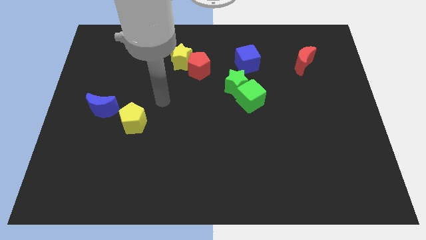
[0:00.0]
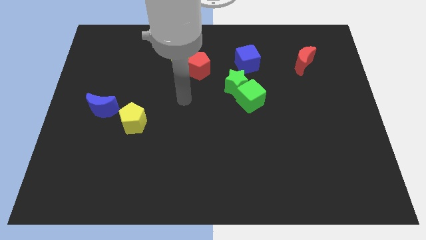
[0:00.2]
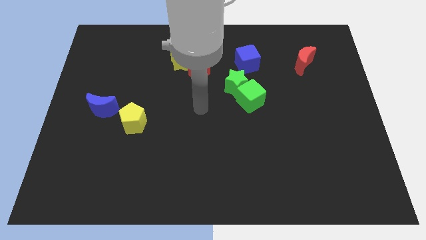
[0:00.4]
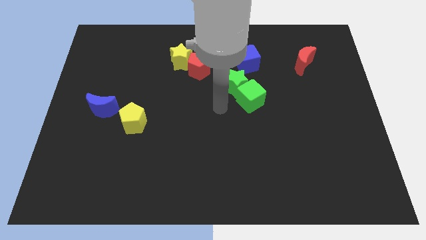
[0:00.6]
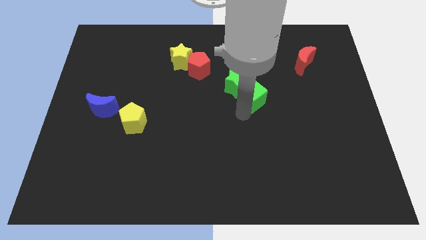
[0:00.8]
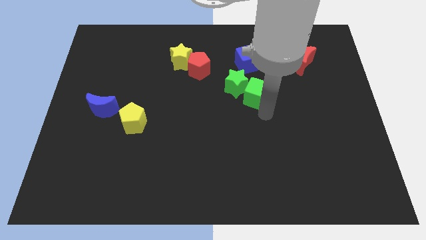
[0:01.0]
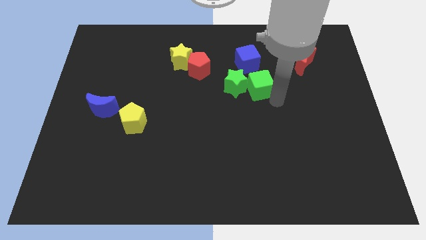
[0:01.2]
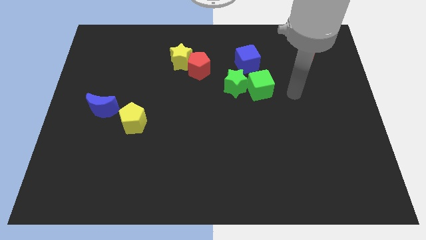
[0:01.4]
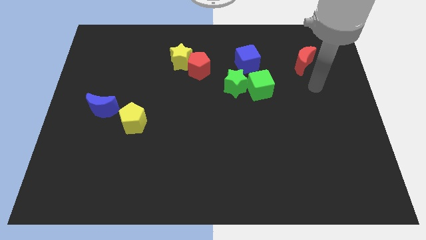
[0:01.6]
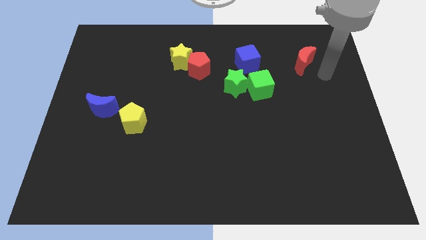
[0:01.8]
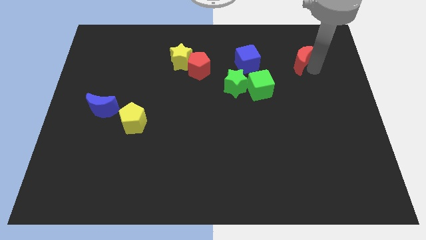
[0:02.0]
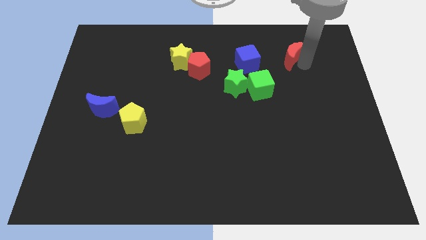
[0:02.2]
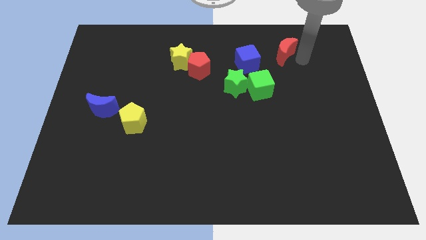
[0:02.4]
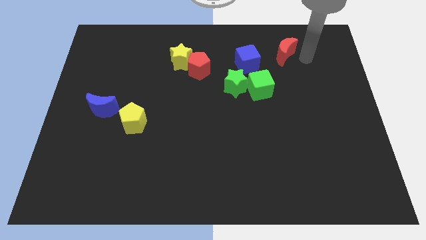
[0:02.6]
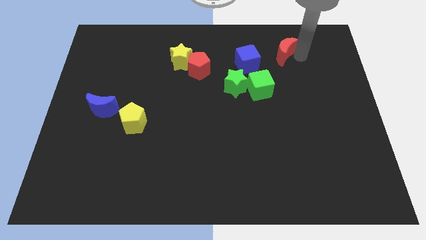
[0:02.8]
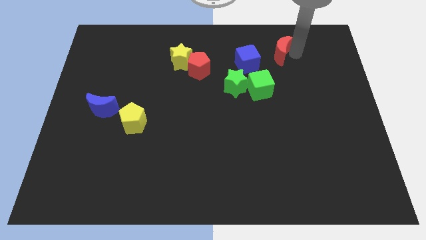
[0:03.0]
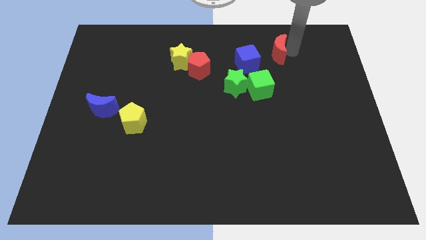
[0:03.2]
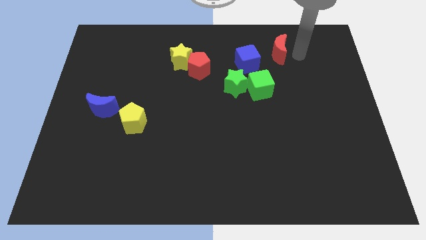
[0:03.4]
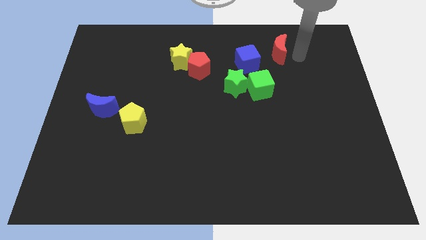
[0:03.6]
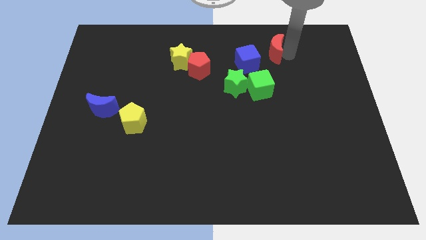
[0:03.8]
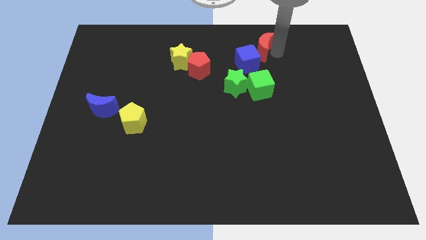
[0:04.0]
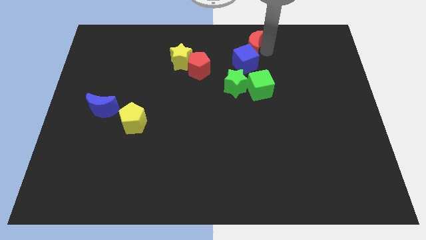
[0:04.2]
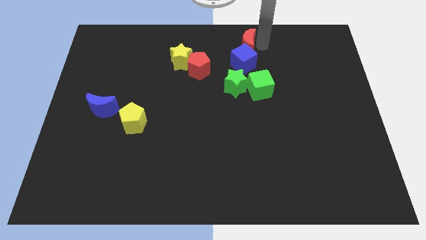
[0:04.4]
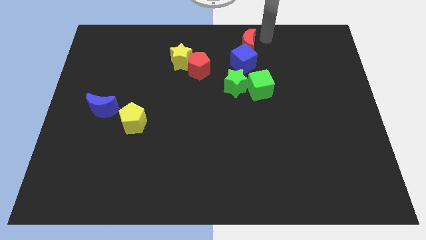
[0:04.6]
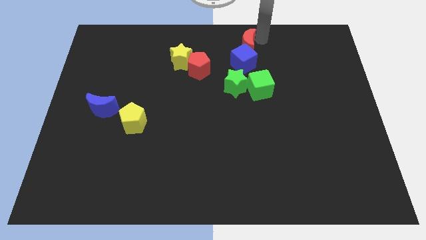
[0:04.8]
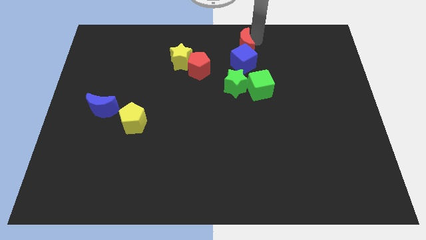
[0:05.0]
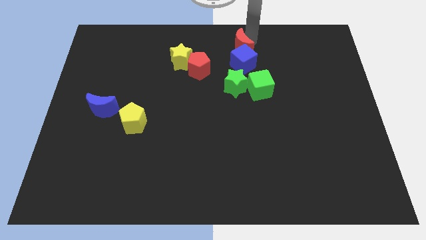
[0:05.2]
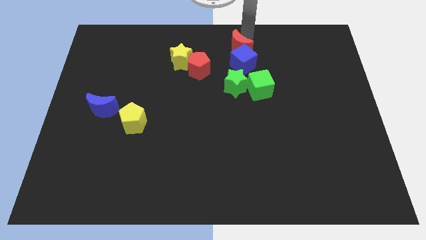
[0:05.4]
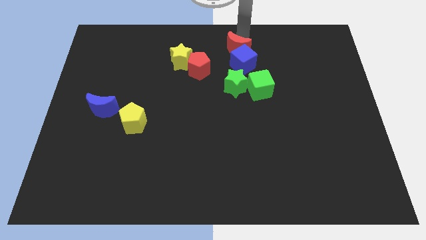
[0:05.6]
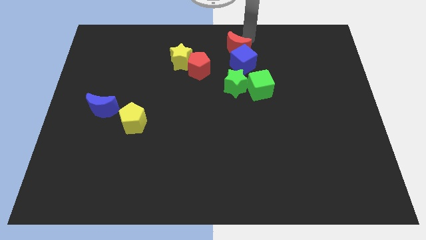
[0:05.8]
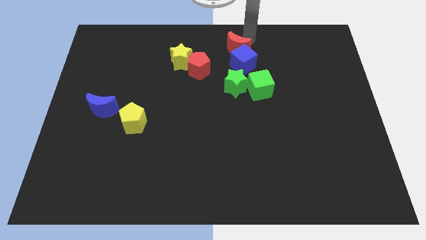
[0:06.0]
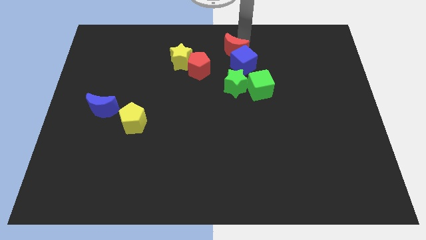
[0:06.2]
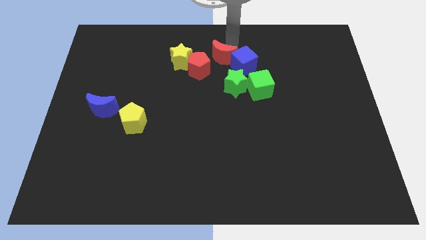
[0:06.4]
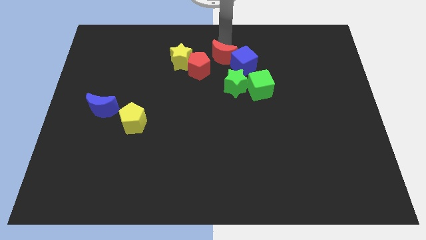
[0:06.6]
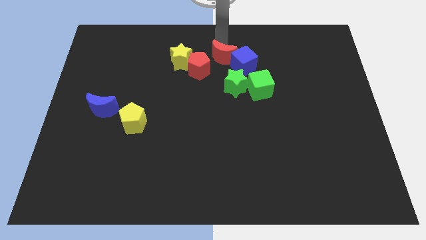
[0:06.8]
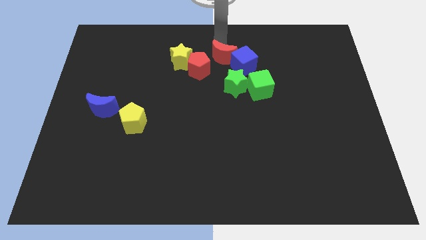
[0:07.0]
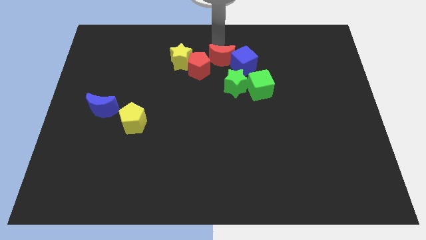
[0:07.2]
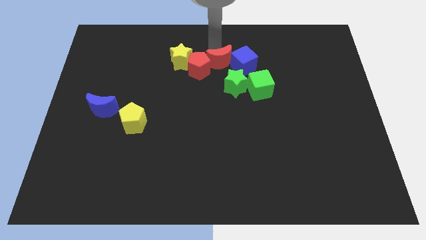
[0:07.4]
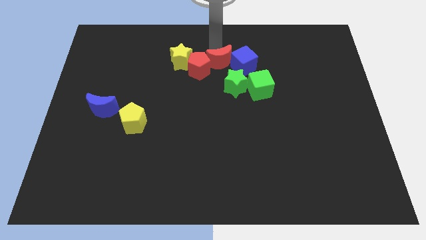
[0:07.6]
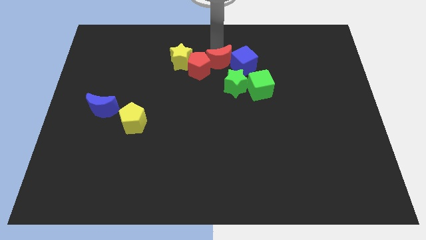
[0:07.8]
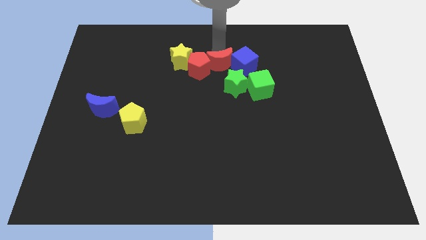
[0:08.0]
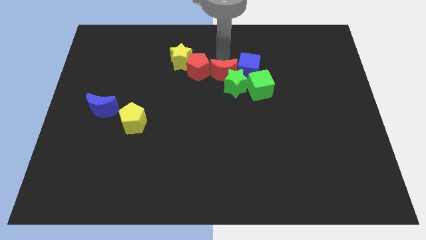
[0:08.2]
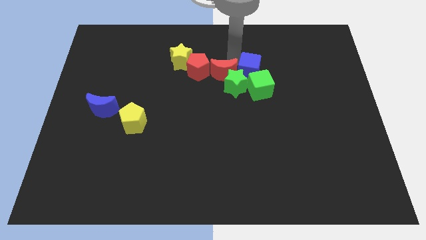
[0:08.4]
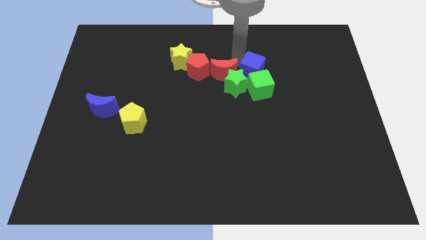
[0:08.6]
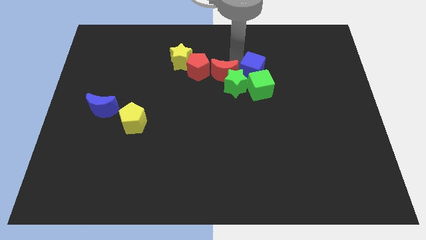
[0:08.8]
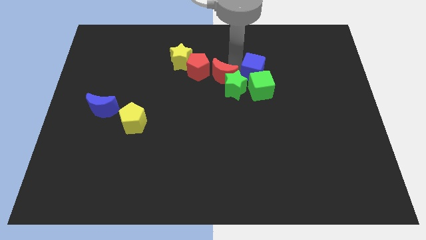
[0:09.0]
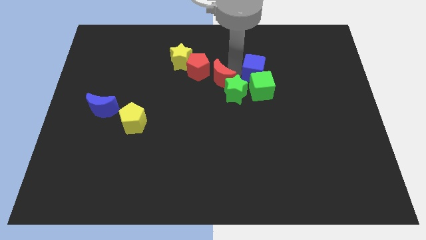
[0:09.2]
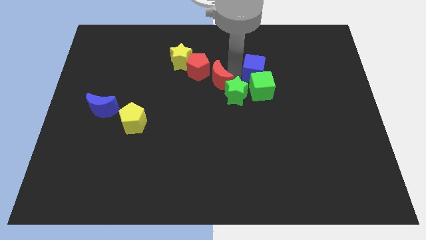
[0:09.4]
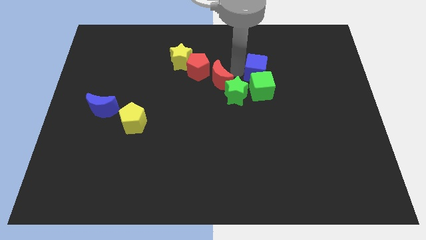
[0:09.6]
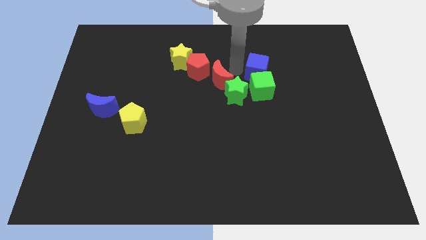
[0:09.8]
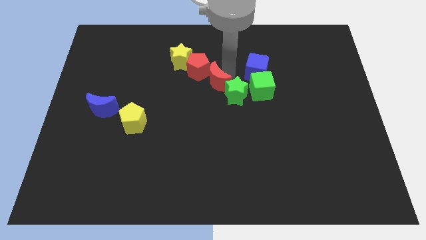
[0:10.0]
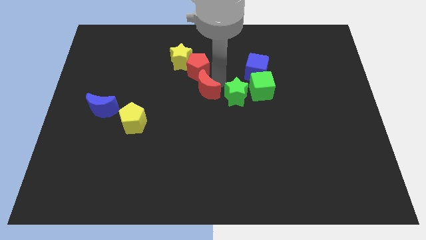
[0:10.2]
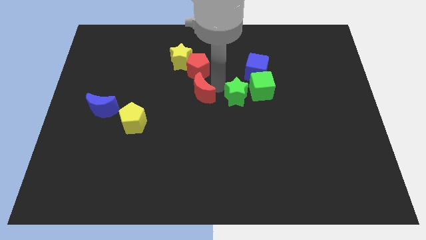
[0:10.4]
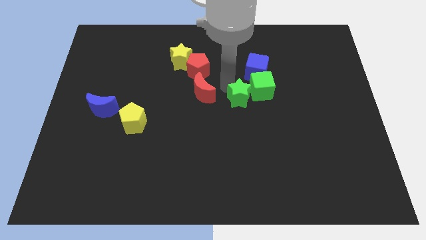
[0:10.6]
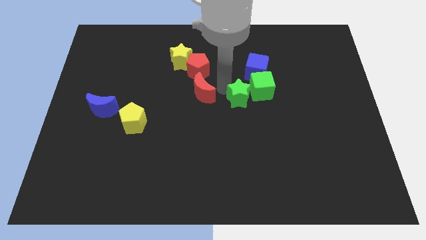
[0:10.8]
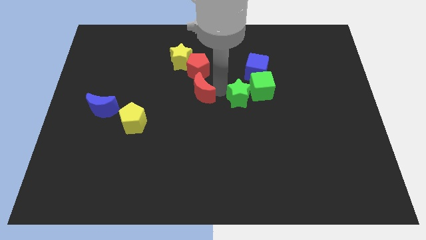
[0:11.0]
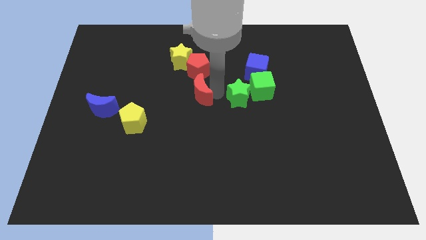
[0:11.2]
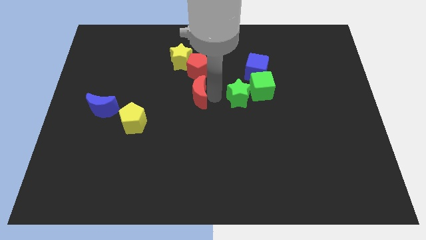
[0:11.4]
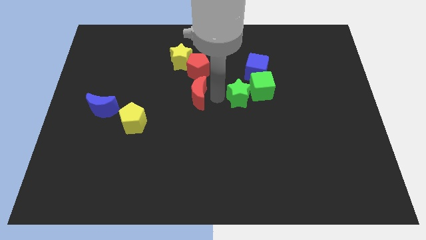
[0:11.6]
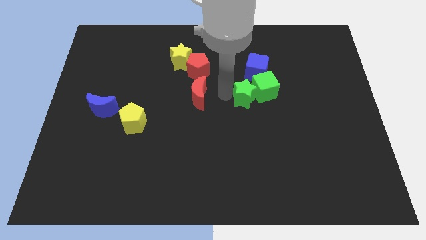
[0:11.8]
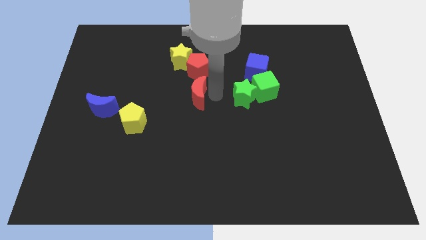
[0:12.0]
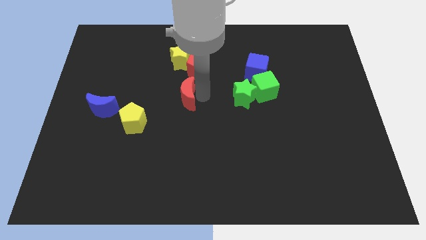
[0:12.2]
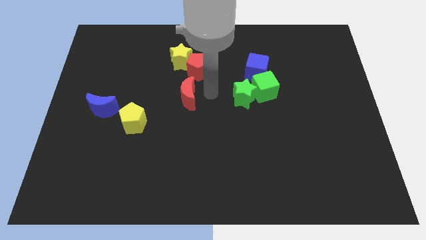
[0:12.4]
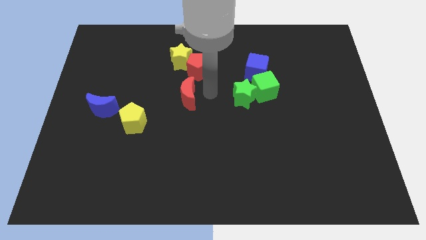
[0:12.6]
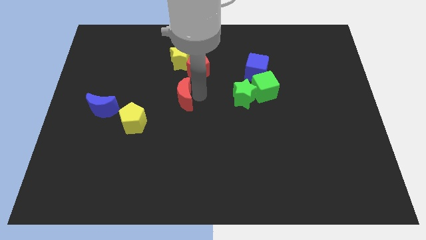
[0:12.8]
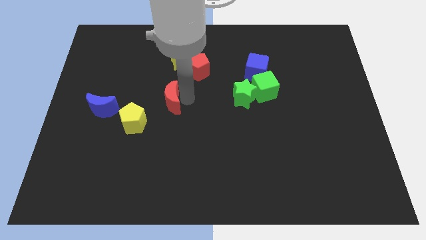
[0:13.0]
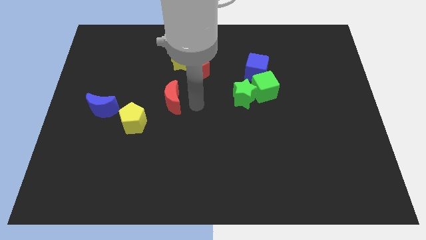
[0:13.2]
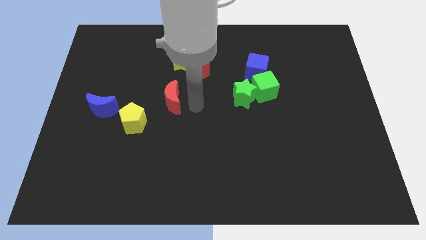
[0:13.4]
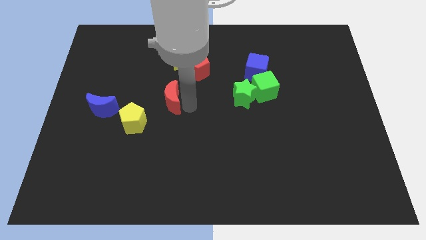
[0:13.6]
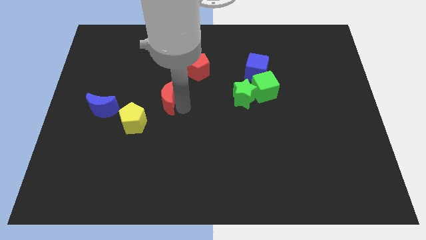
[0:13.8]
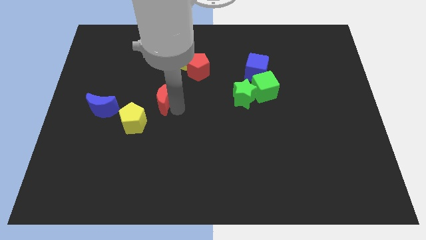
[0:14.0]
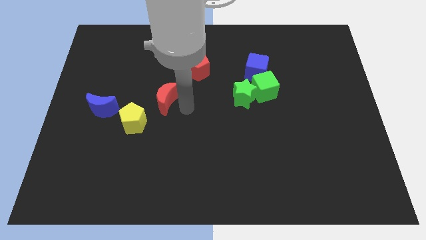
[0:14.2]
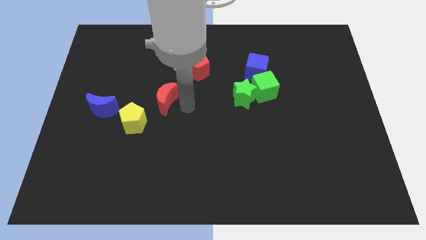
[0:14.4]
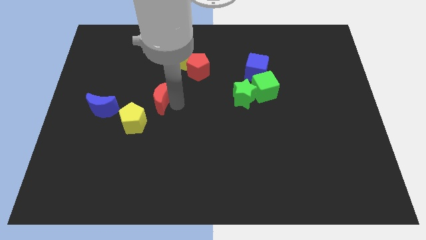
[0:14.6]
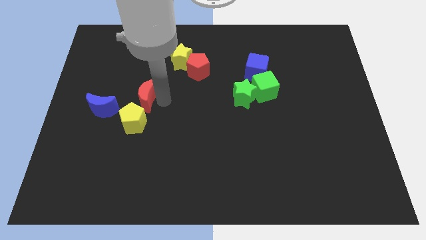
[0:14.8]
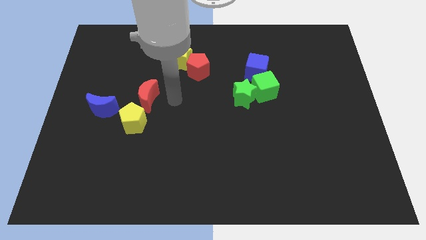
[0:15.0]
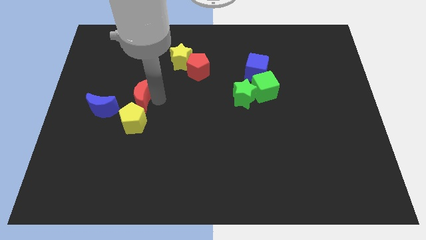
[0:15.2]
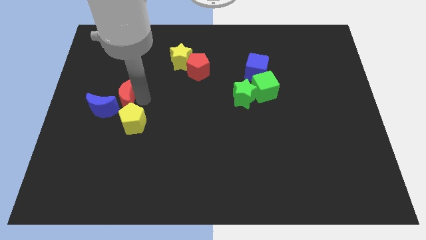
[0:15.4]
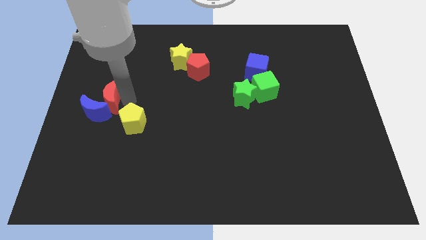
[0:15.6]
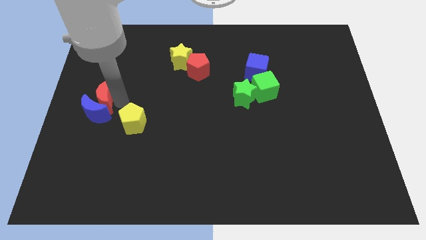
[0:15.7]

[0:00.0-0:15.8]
move the red moon to the left side
